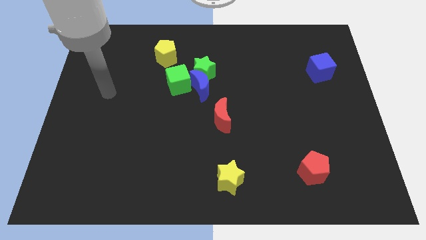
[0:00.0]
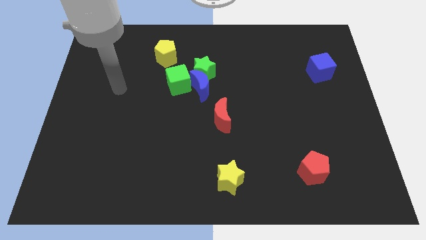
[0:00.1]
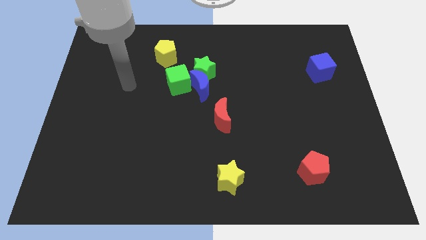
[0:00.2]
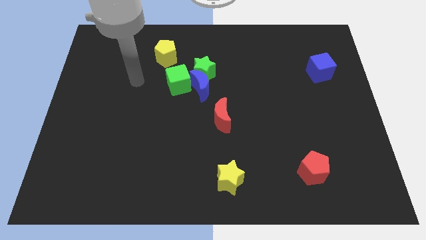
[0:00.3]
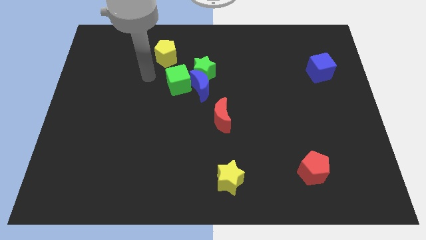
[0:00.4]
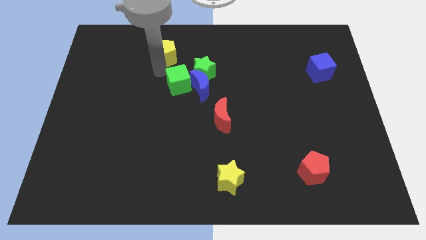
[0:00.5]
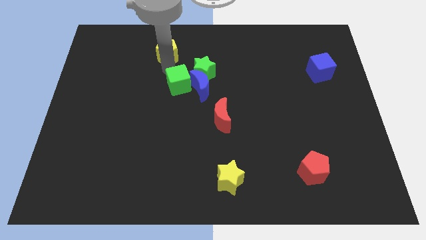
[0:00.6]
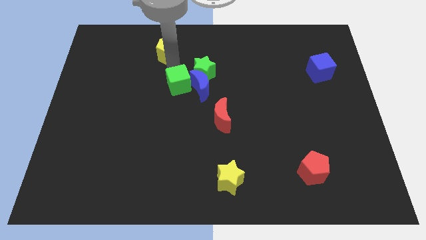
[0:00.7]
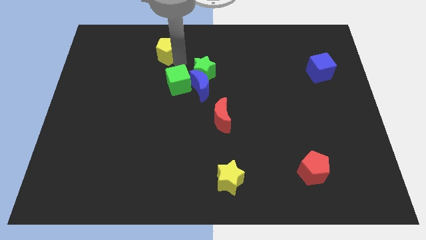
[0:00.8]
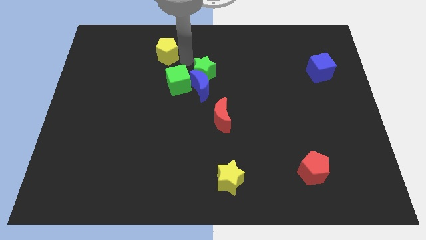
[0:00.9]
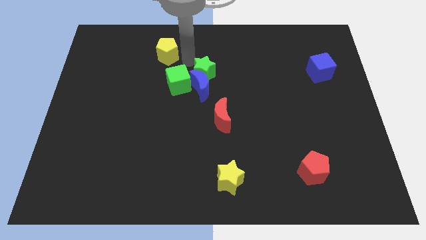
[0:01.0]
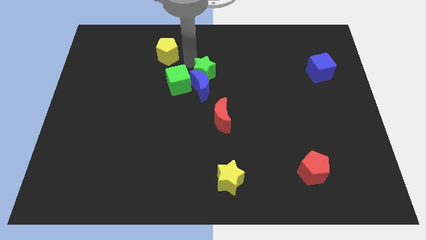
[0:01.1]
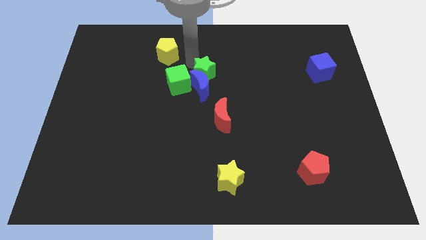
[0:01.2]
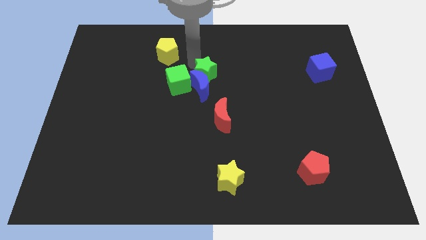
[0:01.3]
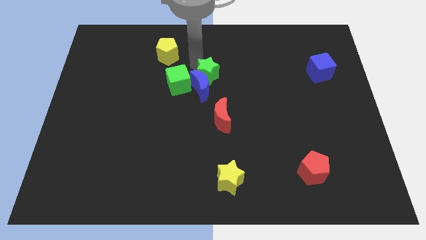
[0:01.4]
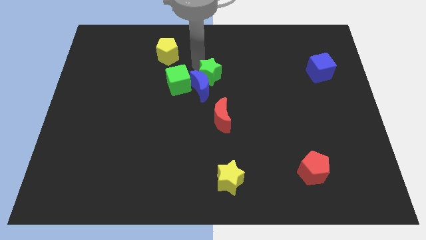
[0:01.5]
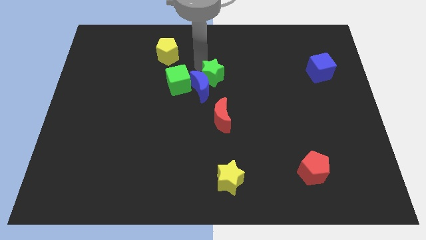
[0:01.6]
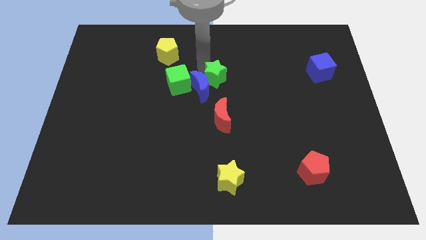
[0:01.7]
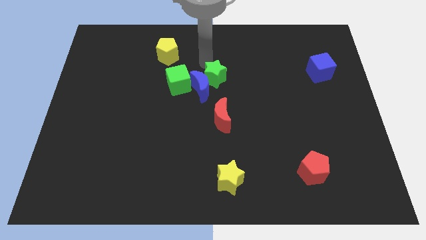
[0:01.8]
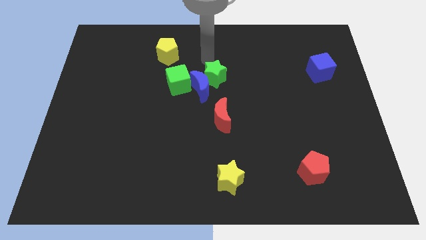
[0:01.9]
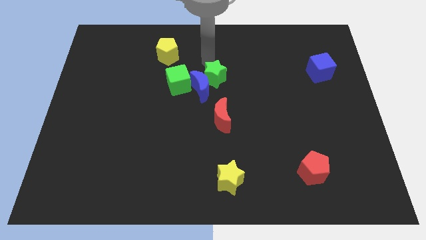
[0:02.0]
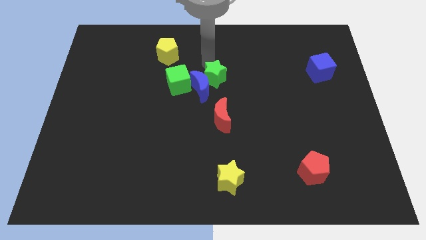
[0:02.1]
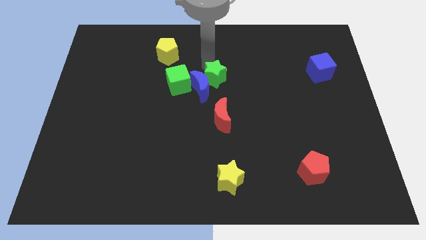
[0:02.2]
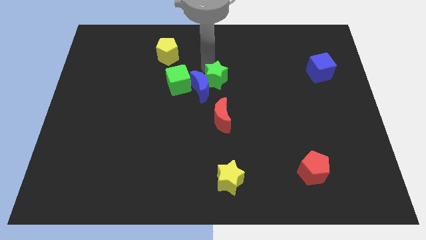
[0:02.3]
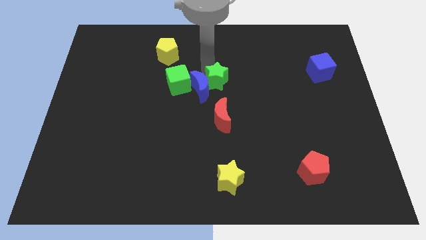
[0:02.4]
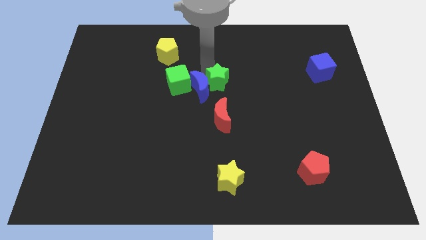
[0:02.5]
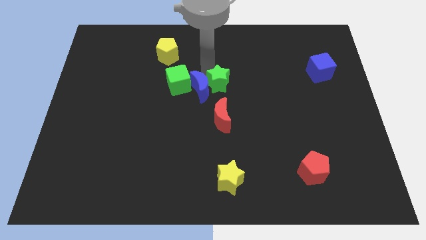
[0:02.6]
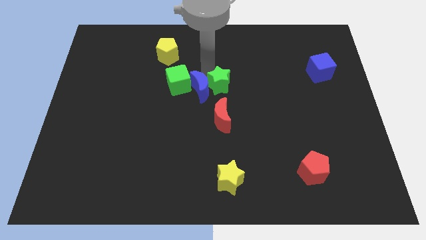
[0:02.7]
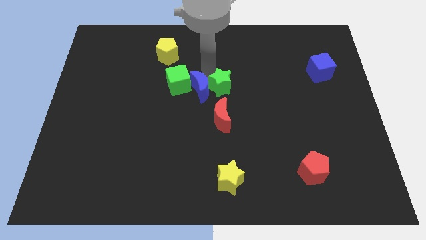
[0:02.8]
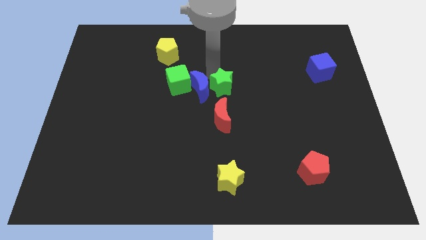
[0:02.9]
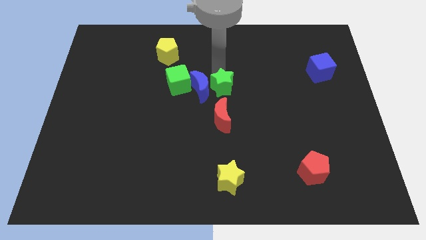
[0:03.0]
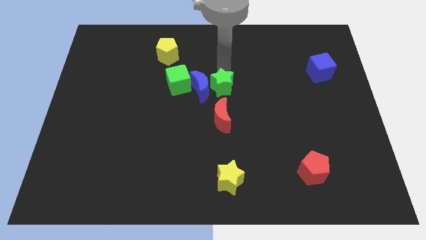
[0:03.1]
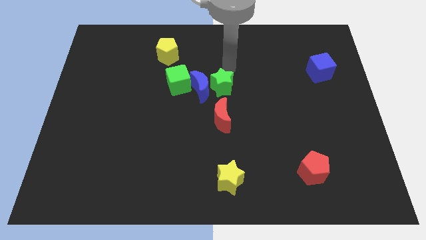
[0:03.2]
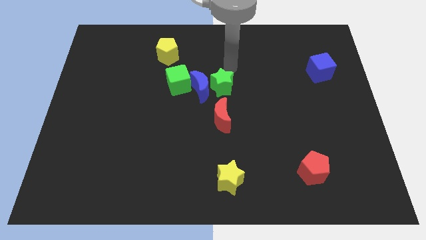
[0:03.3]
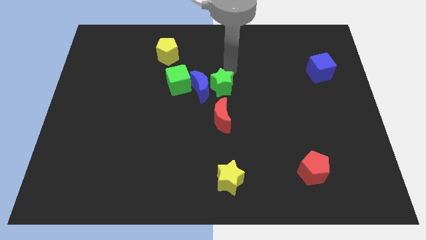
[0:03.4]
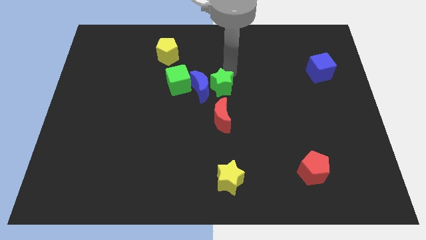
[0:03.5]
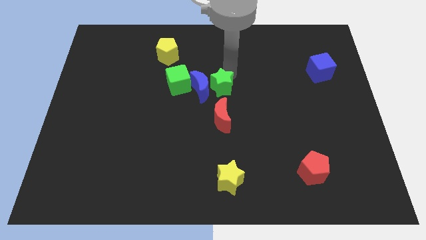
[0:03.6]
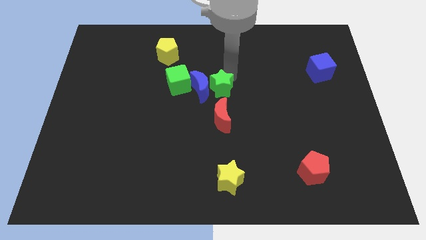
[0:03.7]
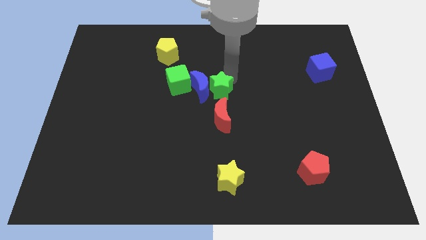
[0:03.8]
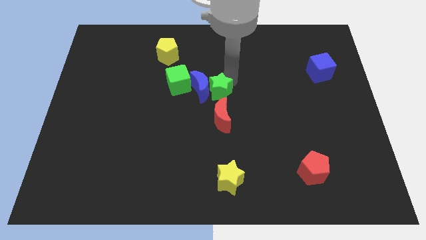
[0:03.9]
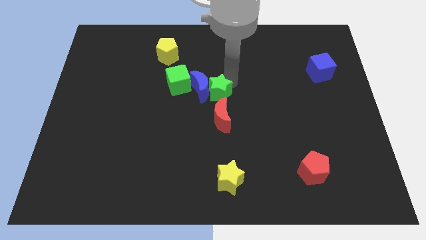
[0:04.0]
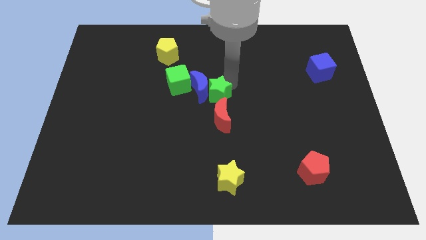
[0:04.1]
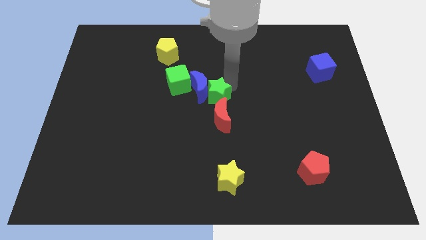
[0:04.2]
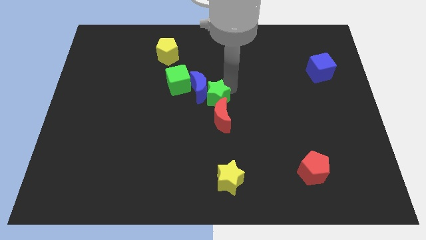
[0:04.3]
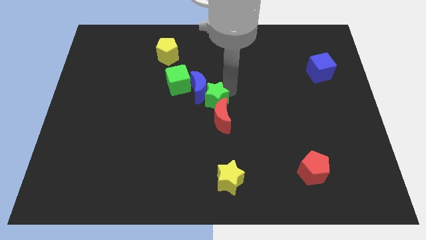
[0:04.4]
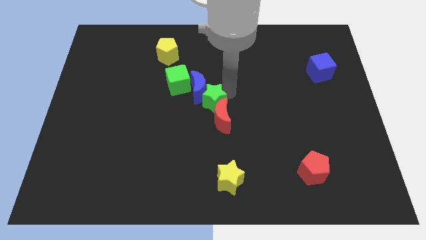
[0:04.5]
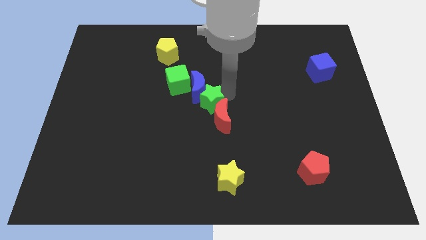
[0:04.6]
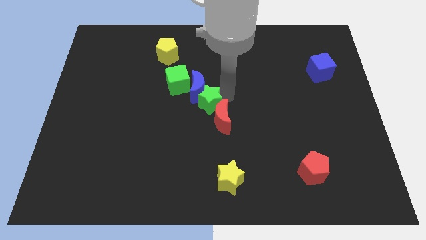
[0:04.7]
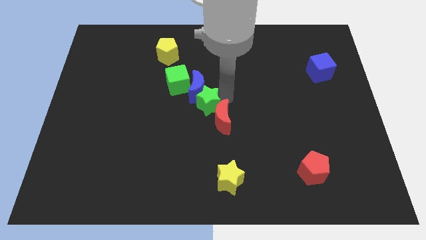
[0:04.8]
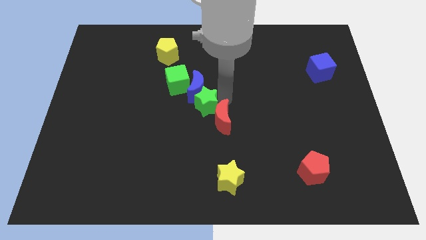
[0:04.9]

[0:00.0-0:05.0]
put the green star to the left side of the red moon

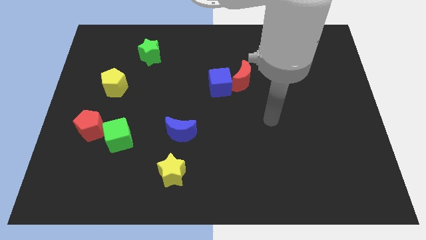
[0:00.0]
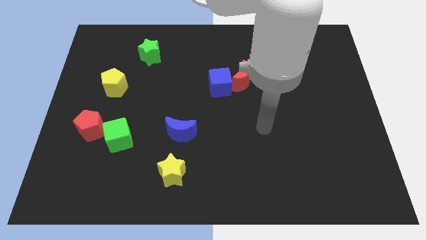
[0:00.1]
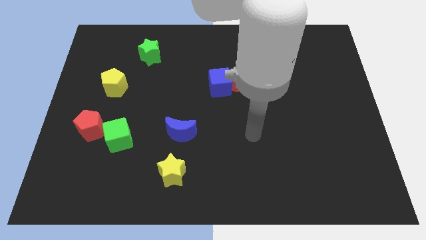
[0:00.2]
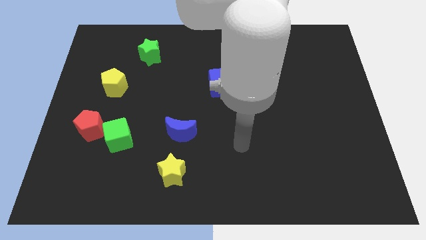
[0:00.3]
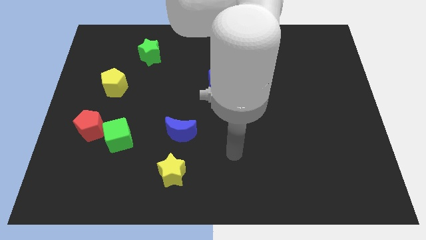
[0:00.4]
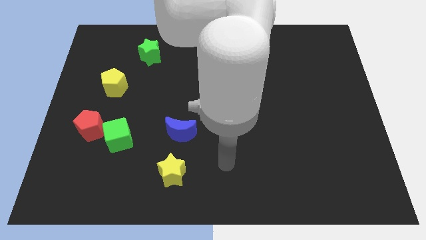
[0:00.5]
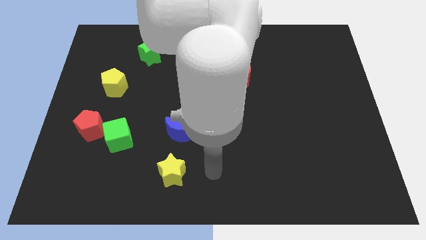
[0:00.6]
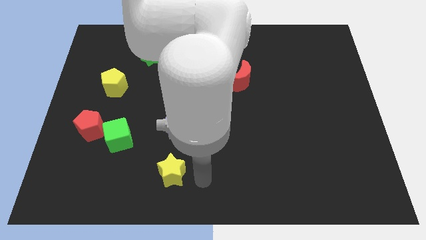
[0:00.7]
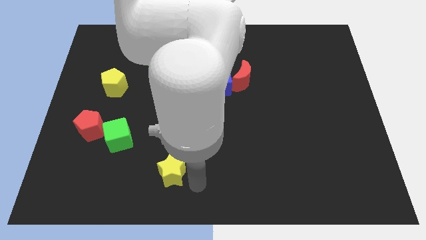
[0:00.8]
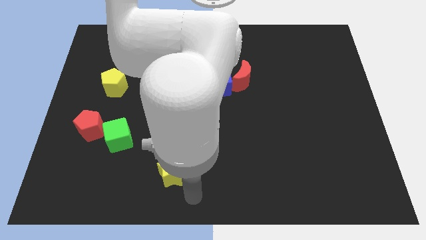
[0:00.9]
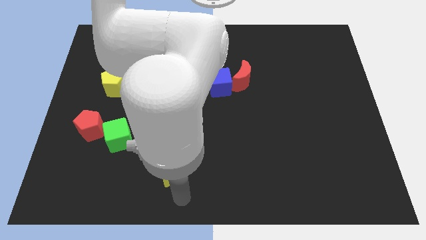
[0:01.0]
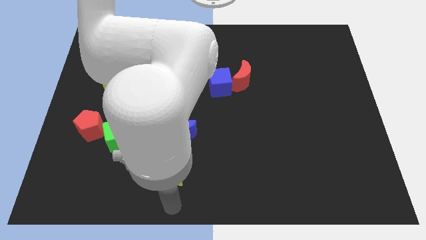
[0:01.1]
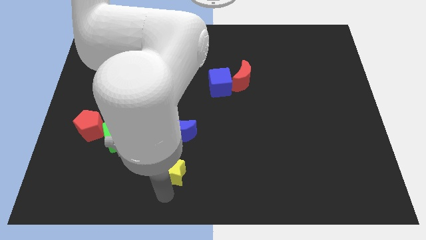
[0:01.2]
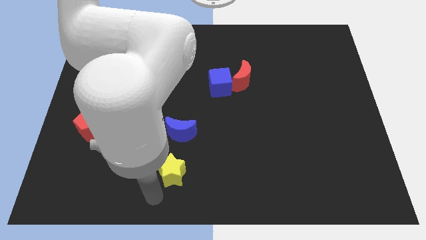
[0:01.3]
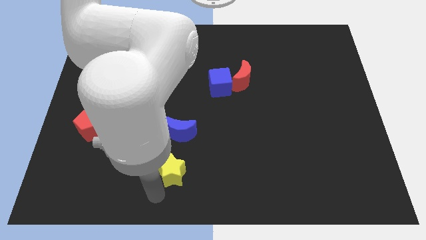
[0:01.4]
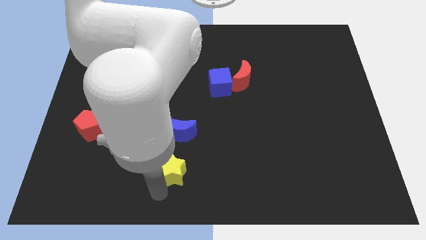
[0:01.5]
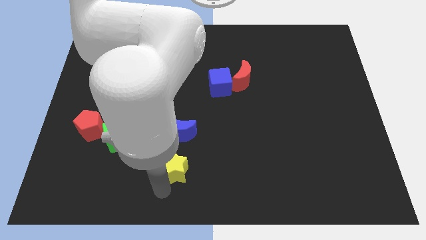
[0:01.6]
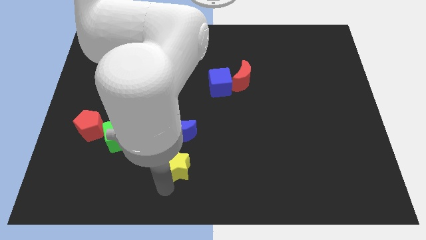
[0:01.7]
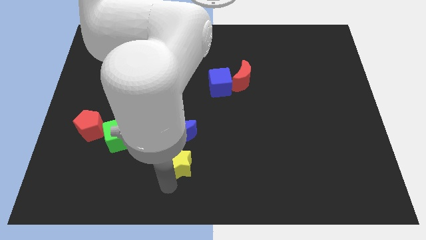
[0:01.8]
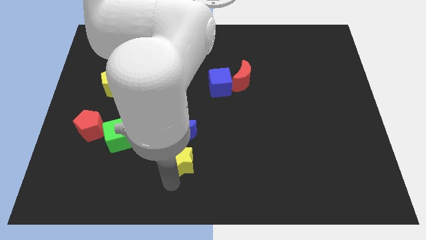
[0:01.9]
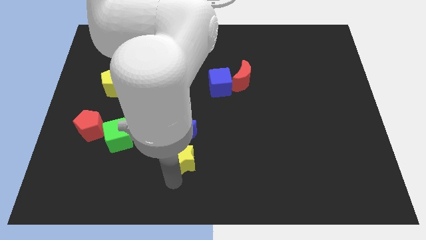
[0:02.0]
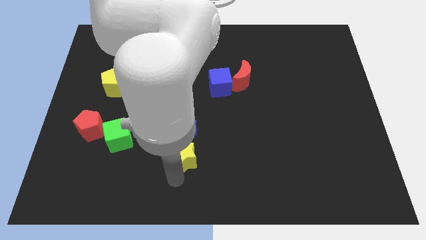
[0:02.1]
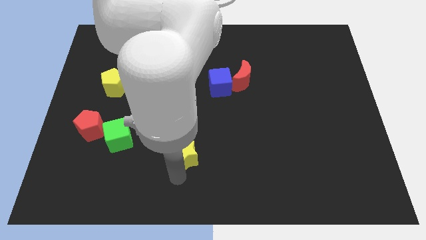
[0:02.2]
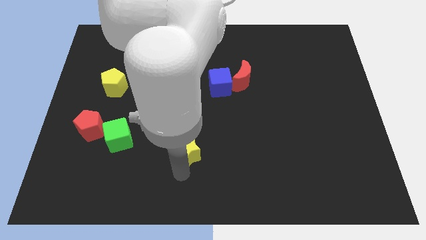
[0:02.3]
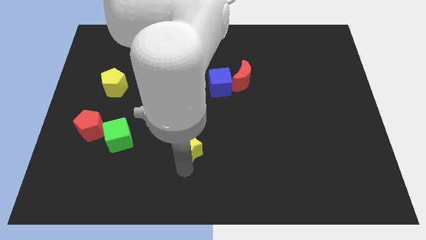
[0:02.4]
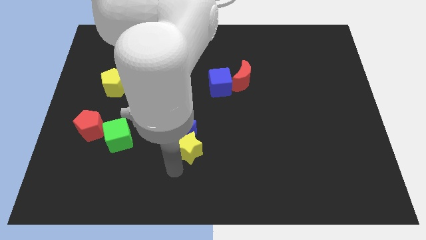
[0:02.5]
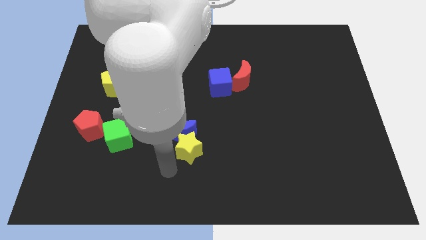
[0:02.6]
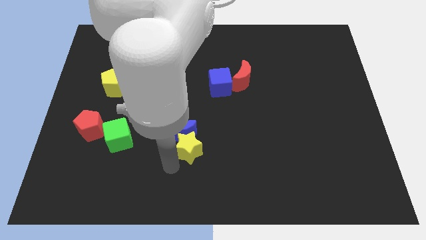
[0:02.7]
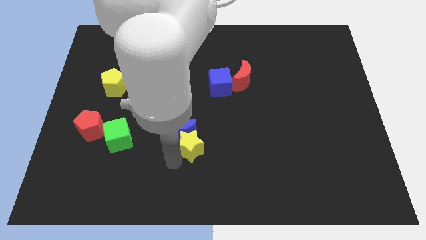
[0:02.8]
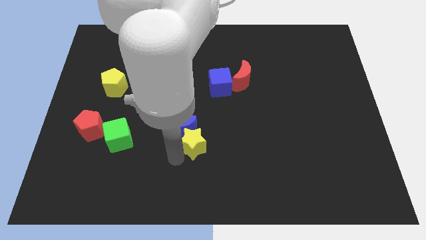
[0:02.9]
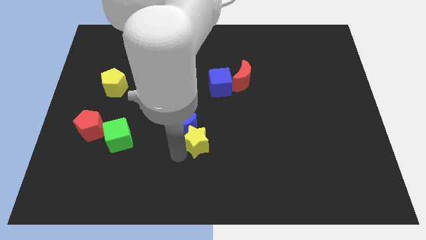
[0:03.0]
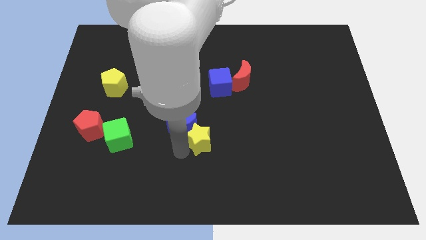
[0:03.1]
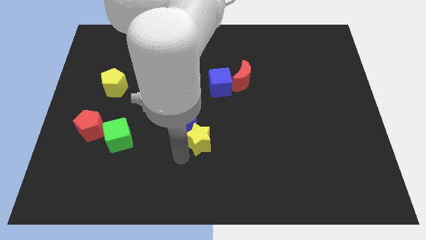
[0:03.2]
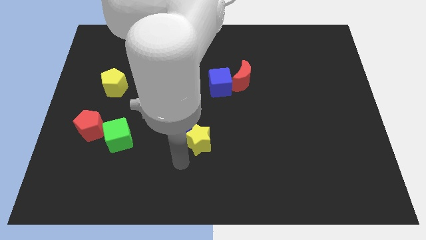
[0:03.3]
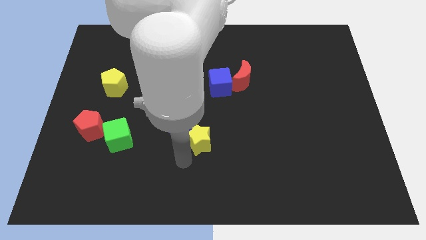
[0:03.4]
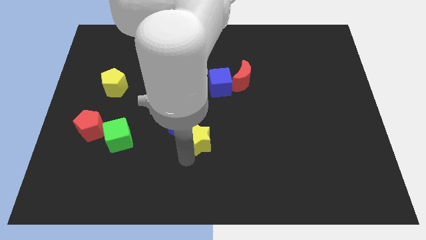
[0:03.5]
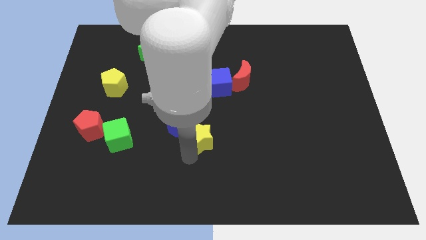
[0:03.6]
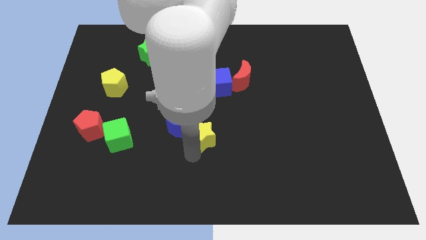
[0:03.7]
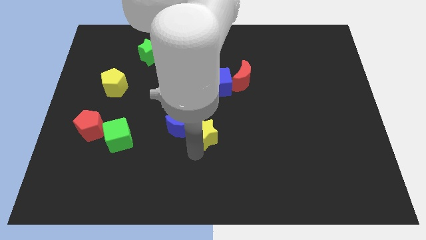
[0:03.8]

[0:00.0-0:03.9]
put the yellow star to the bottom of the blue cube
